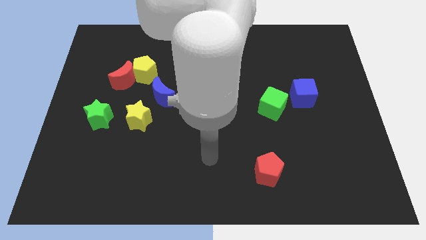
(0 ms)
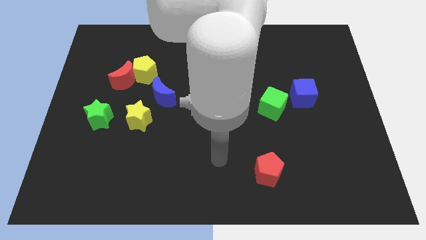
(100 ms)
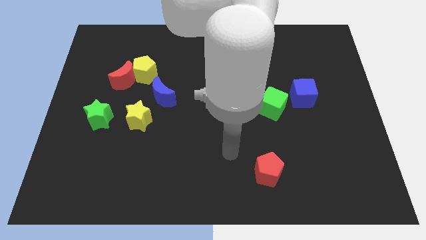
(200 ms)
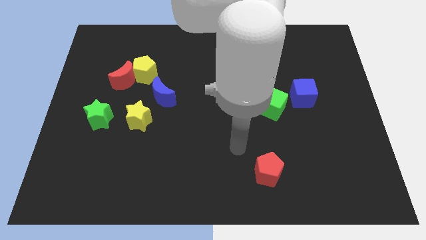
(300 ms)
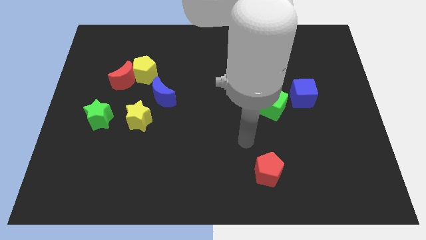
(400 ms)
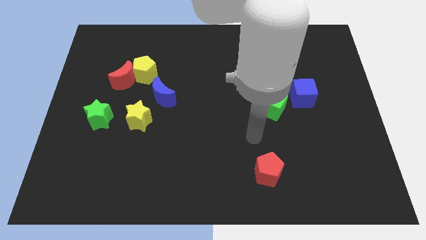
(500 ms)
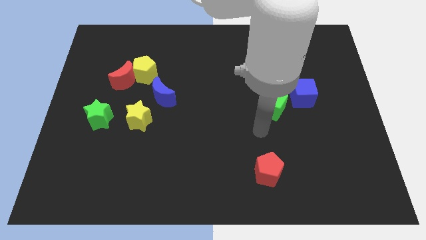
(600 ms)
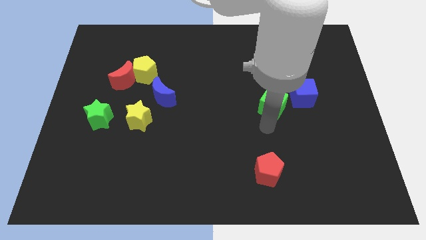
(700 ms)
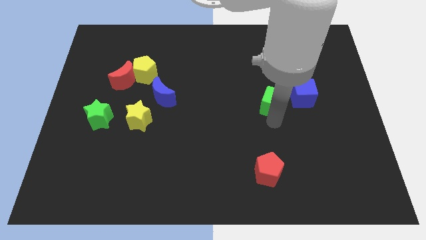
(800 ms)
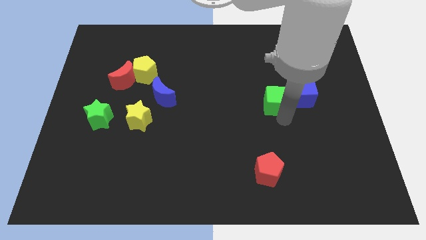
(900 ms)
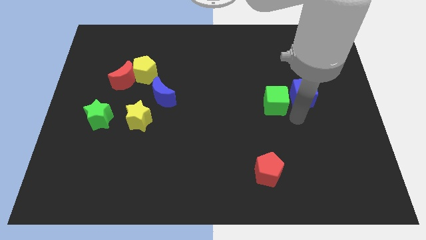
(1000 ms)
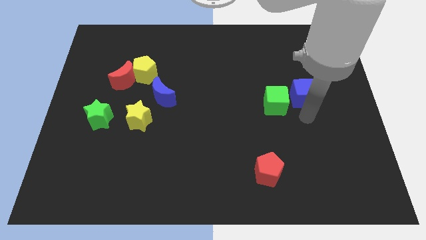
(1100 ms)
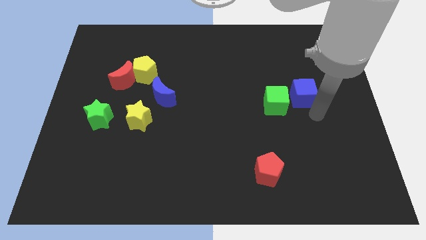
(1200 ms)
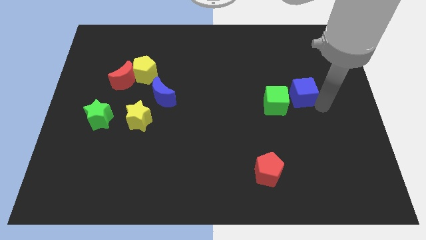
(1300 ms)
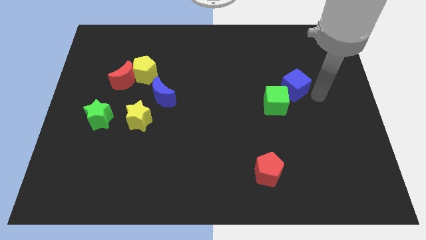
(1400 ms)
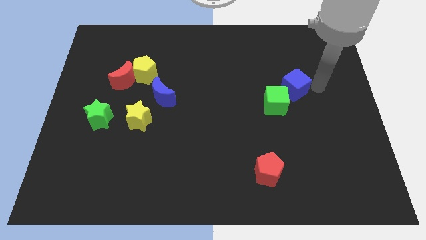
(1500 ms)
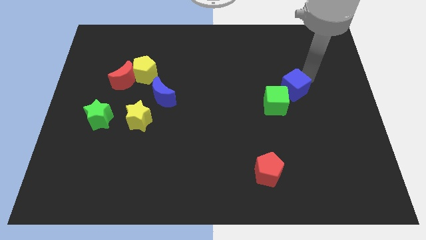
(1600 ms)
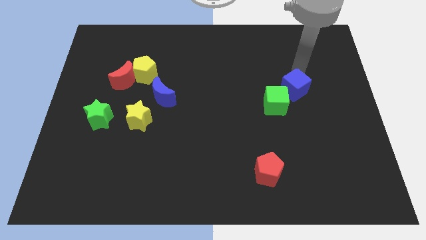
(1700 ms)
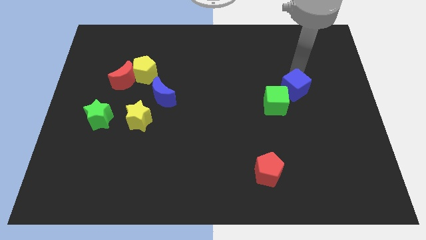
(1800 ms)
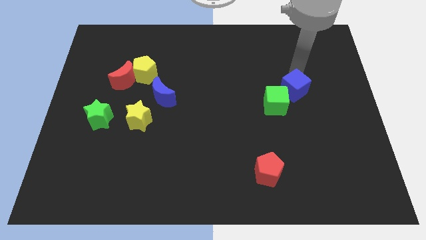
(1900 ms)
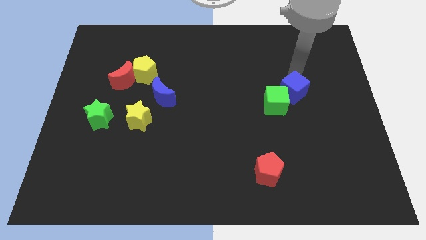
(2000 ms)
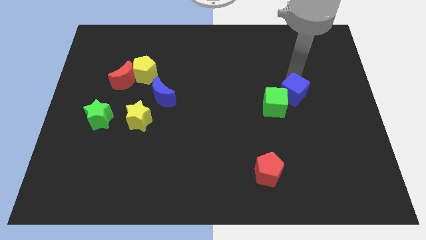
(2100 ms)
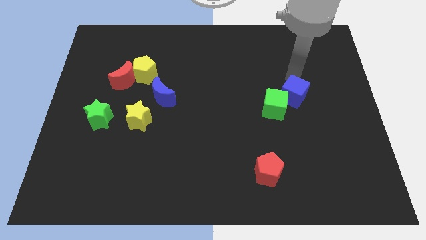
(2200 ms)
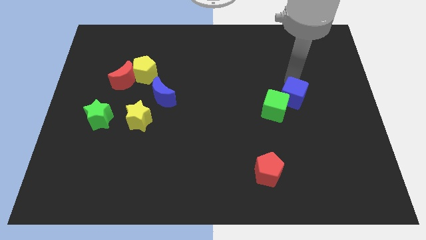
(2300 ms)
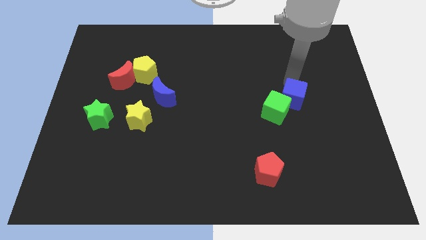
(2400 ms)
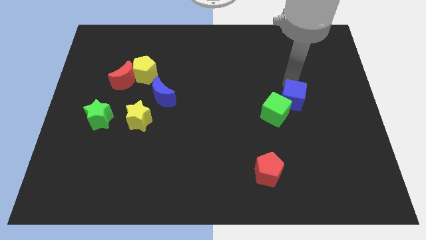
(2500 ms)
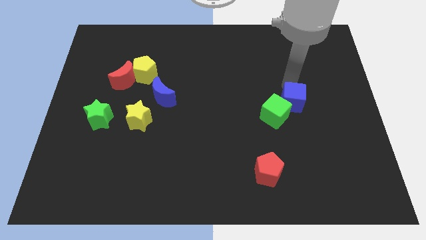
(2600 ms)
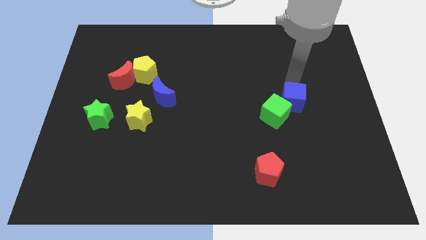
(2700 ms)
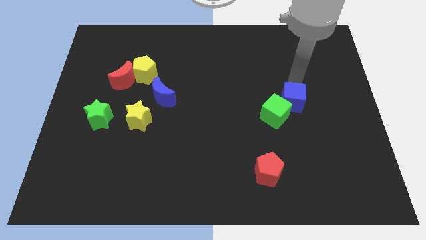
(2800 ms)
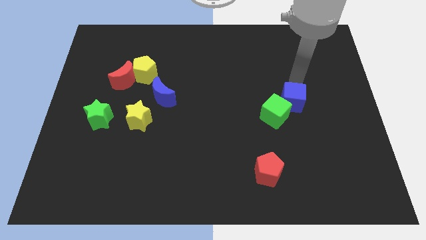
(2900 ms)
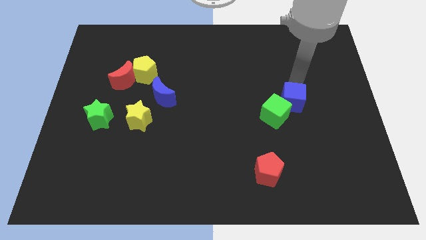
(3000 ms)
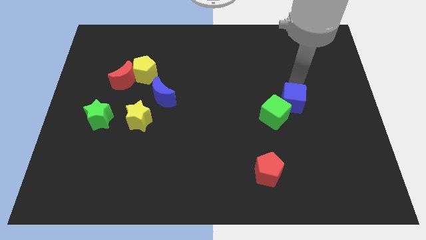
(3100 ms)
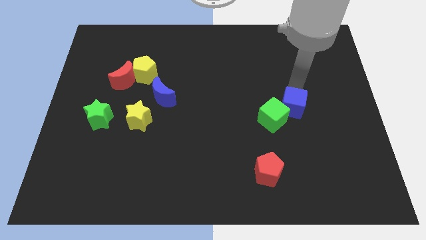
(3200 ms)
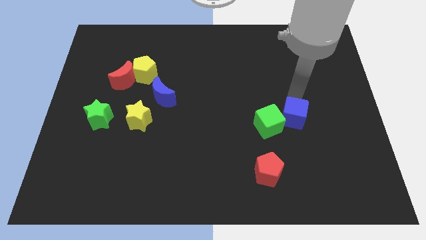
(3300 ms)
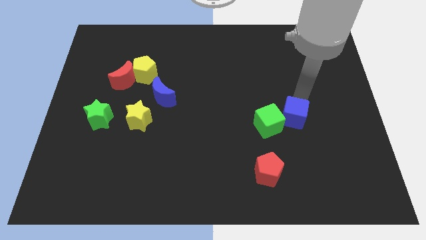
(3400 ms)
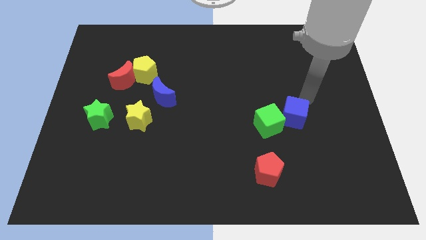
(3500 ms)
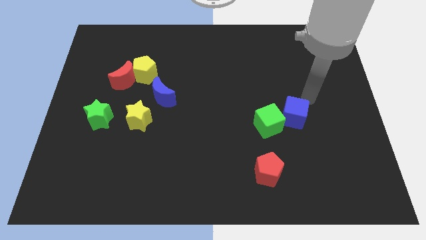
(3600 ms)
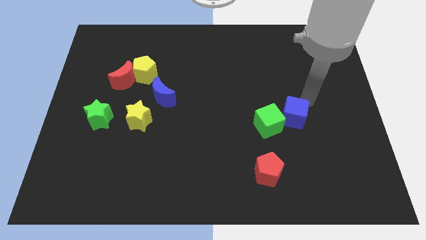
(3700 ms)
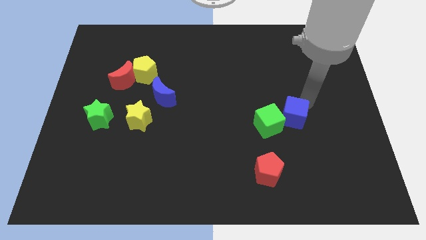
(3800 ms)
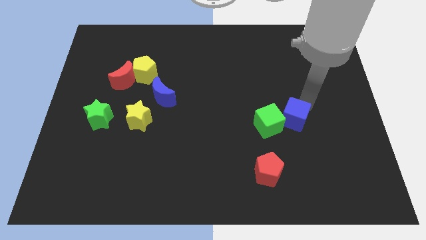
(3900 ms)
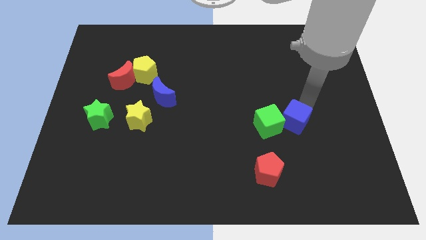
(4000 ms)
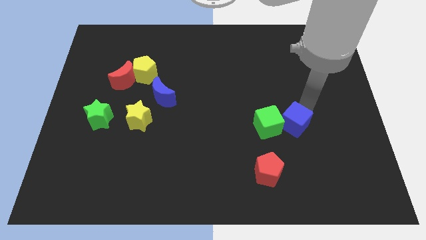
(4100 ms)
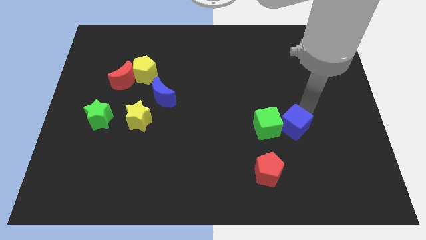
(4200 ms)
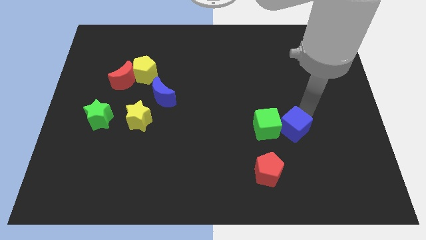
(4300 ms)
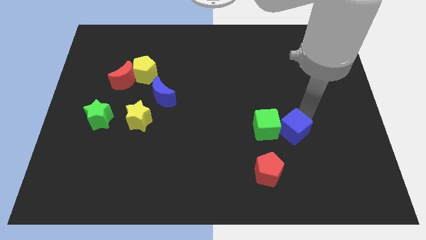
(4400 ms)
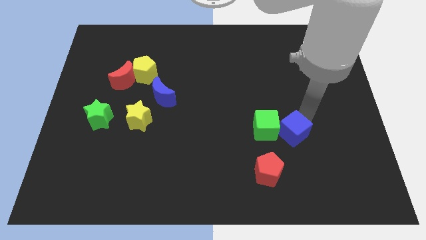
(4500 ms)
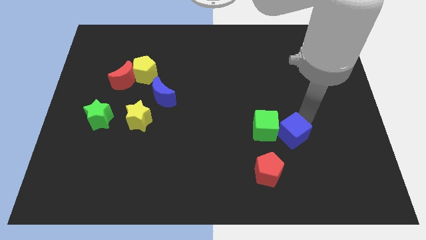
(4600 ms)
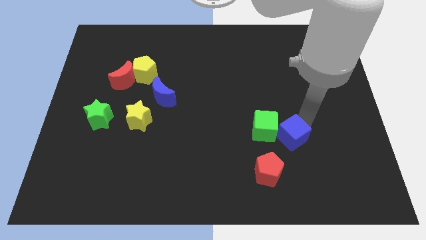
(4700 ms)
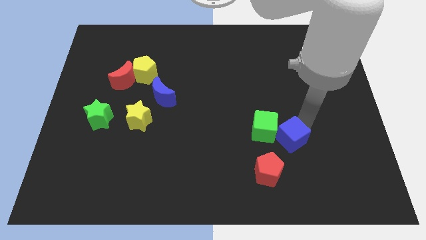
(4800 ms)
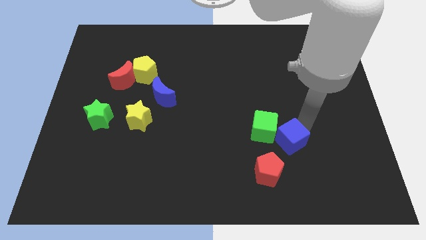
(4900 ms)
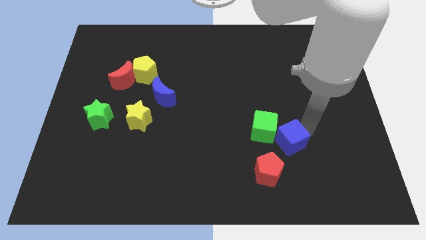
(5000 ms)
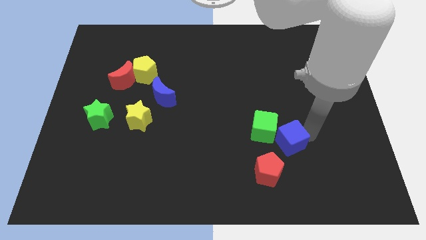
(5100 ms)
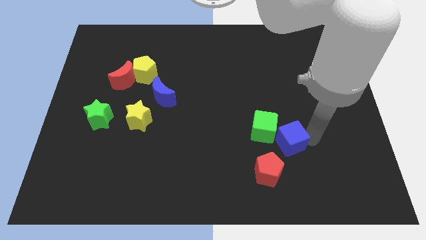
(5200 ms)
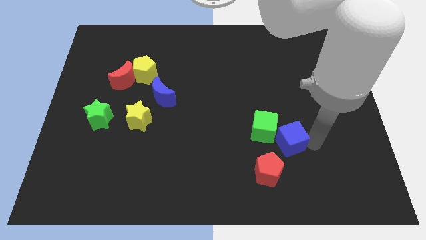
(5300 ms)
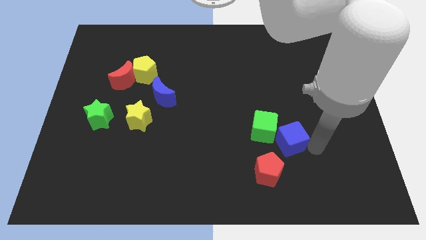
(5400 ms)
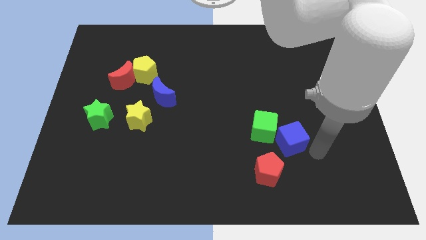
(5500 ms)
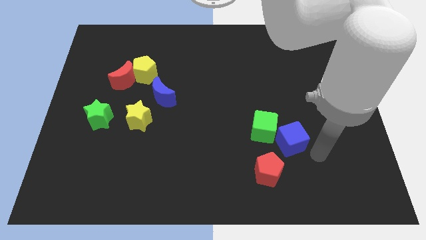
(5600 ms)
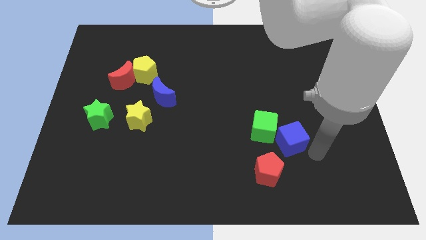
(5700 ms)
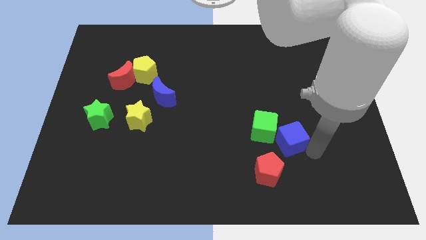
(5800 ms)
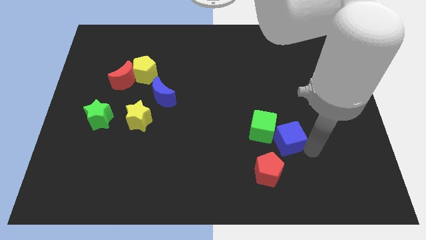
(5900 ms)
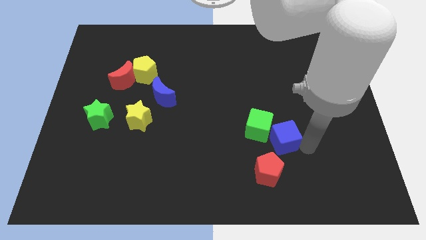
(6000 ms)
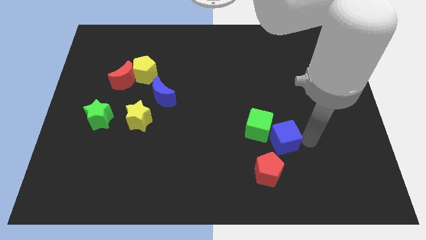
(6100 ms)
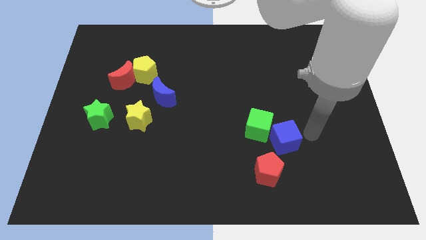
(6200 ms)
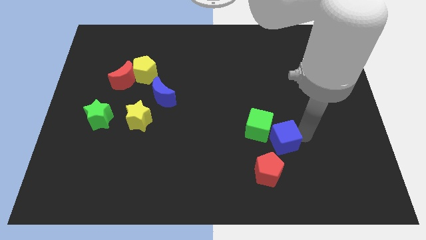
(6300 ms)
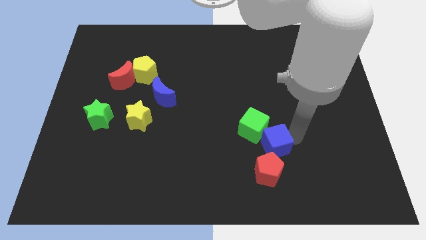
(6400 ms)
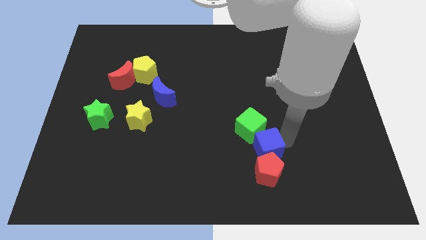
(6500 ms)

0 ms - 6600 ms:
slide the blue cube to the top left side of the red pentagon
